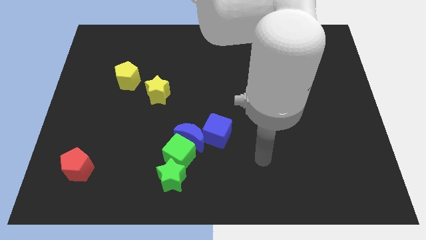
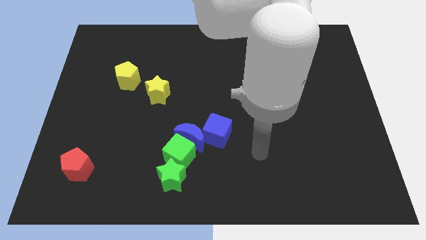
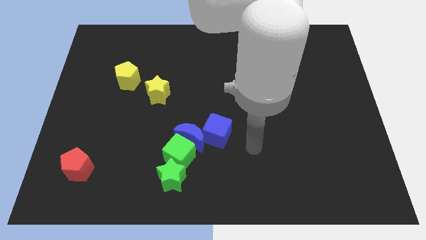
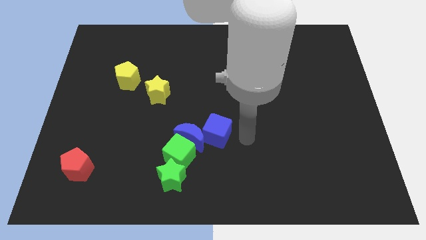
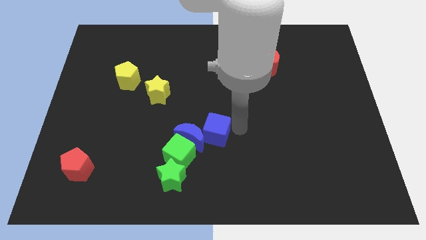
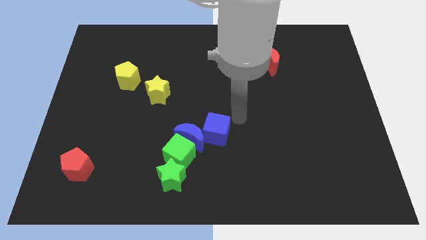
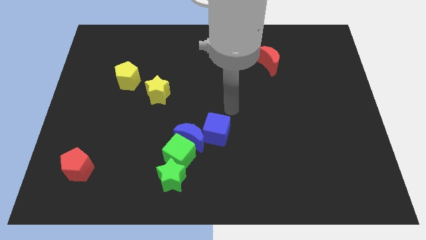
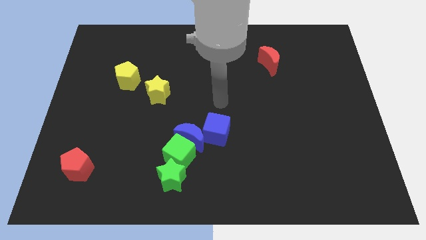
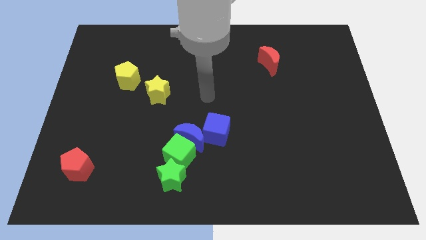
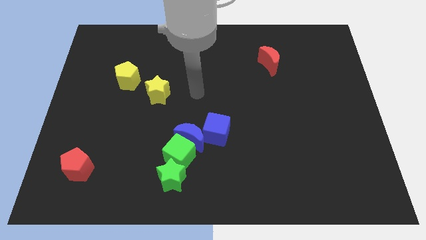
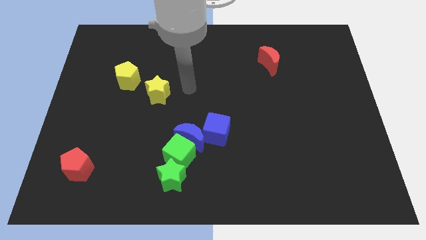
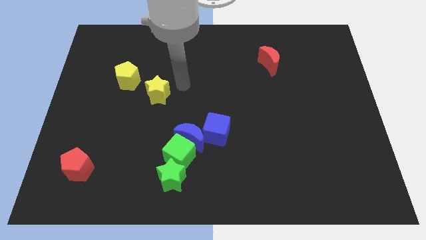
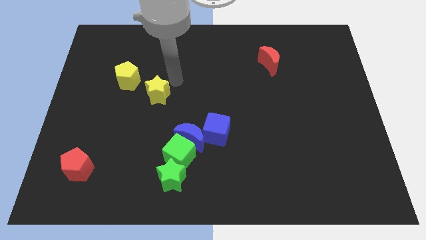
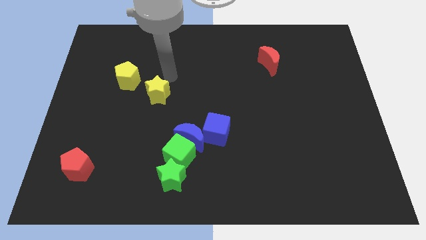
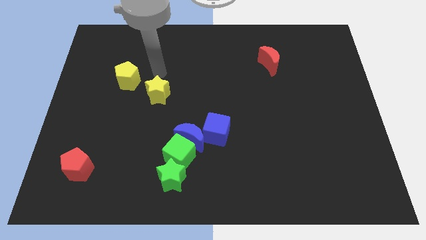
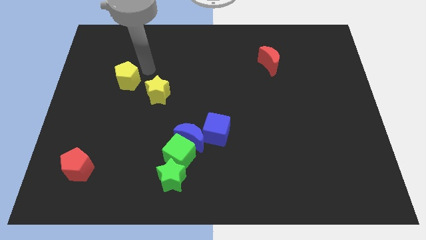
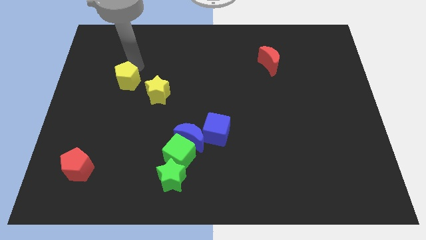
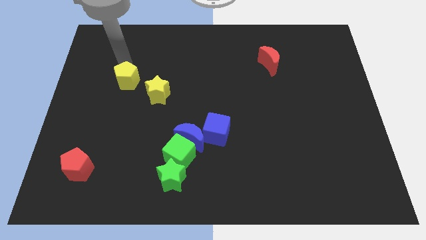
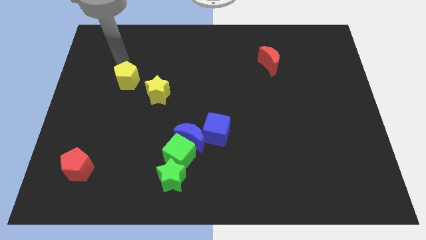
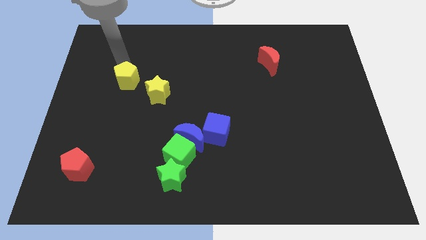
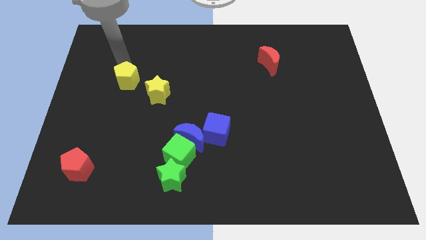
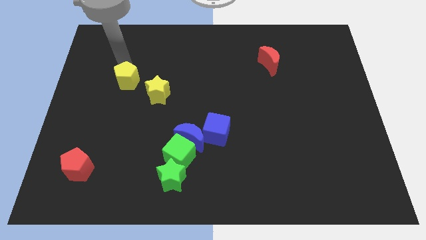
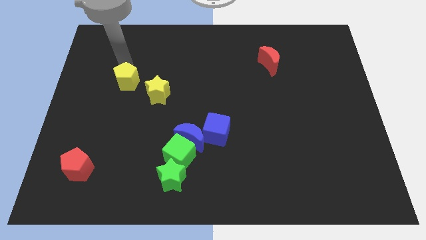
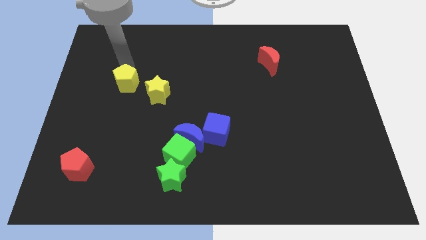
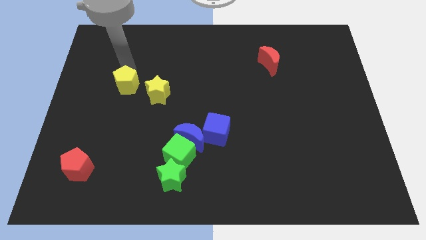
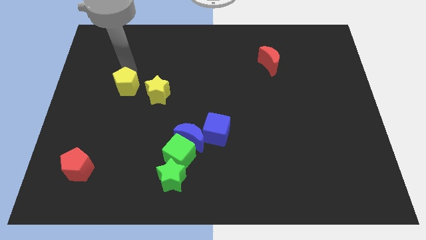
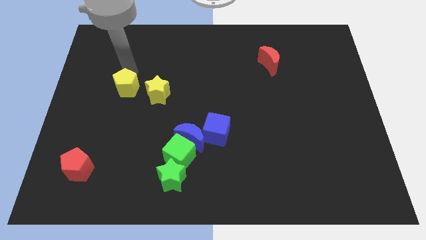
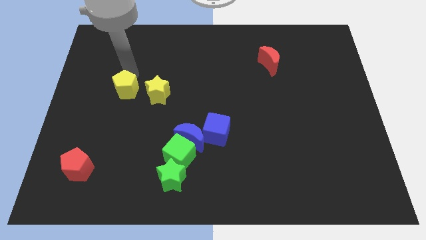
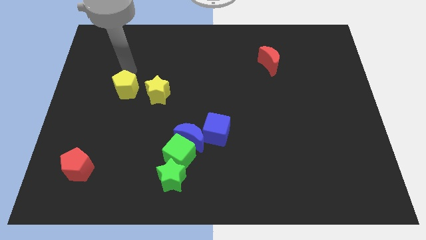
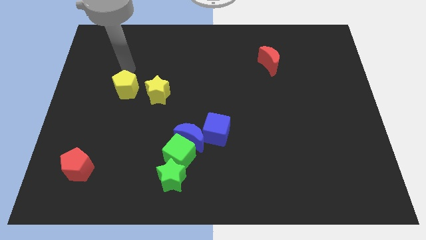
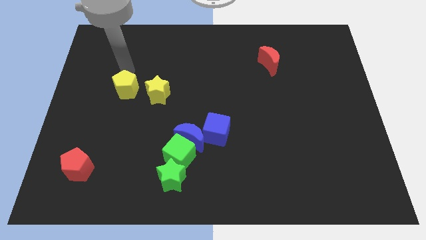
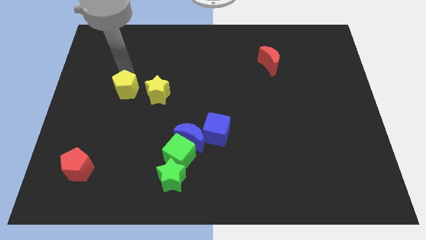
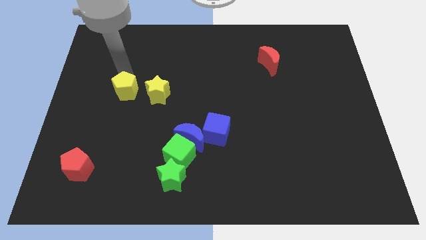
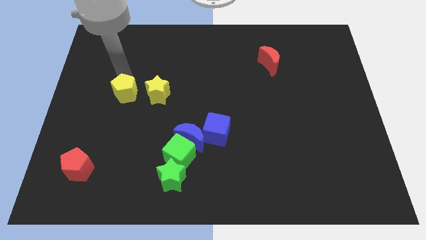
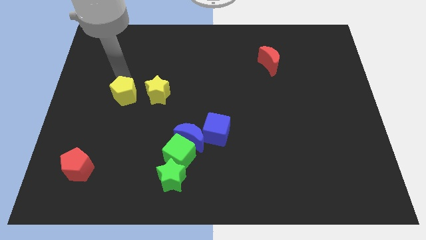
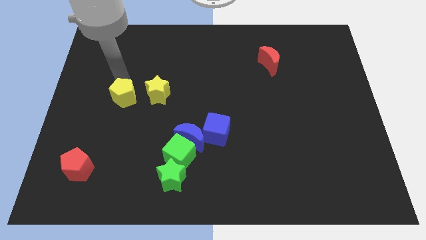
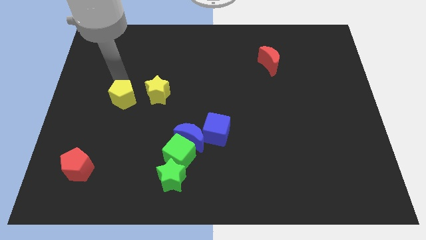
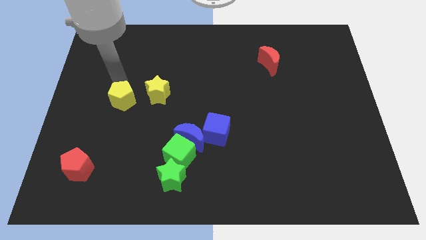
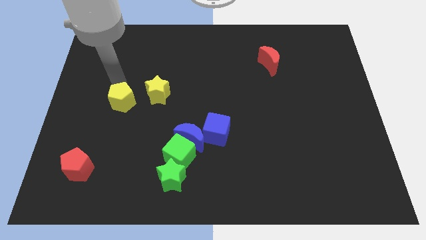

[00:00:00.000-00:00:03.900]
push the yellow pentagon somewhat down

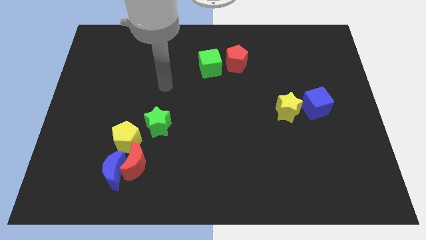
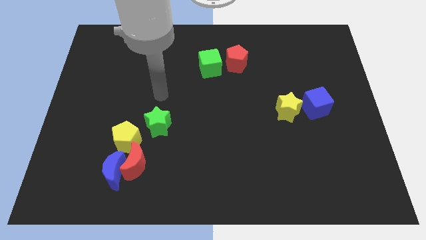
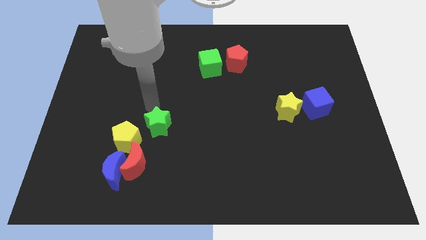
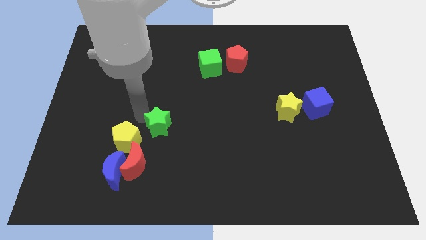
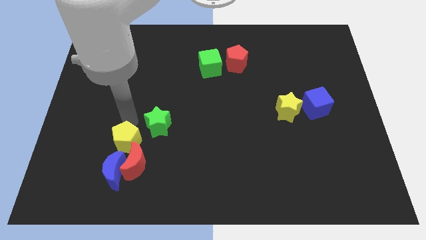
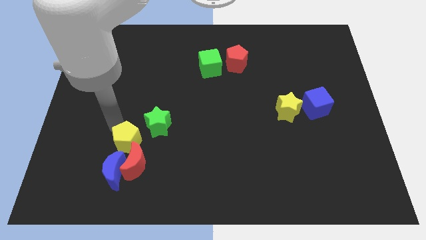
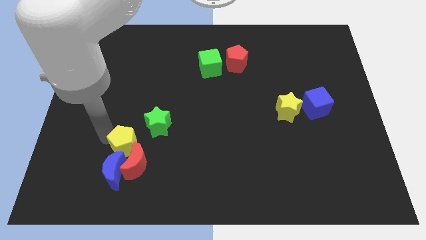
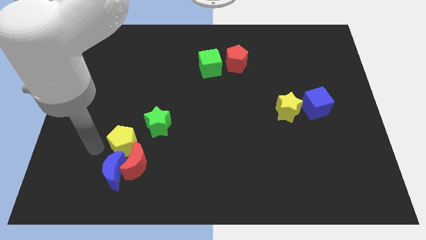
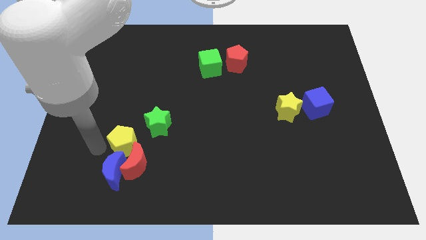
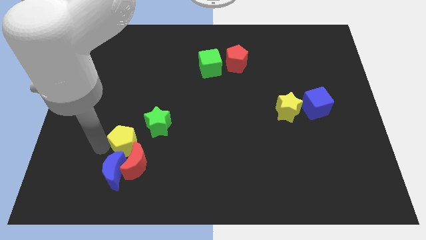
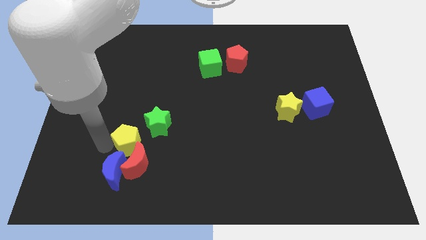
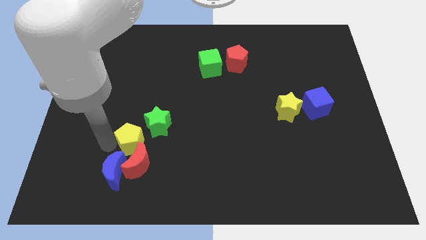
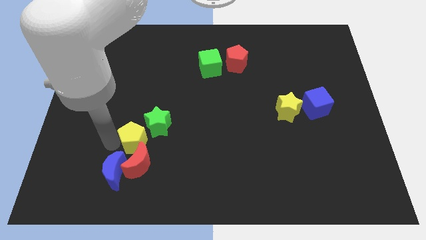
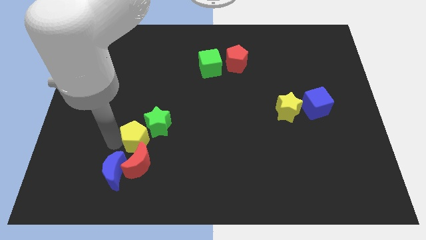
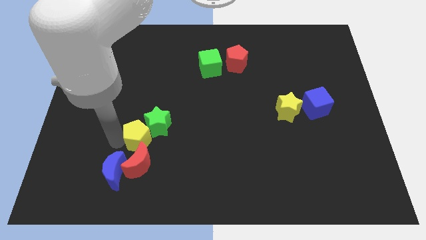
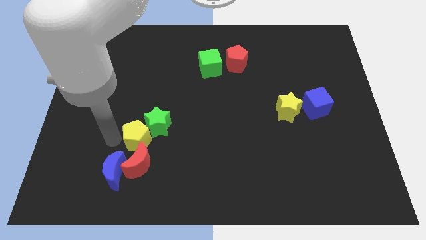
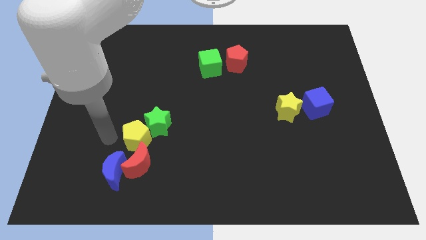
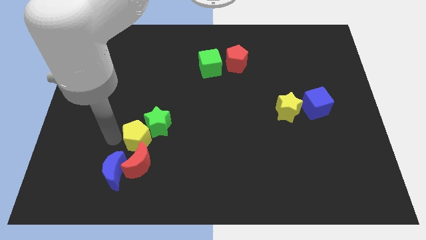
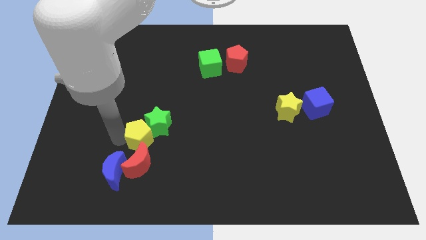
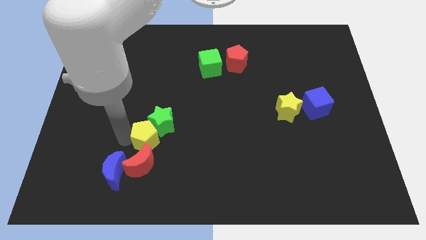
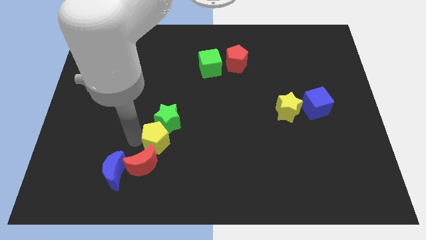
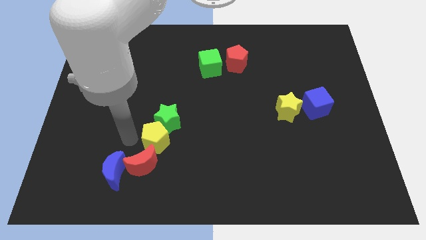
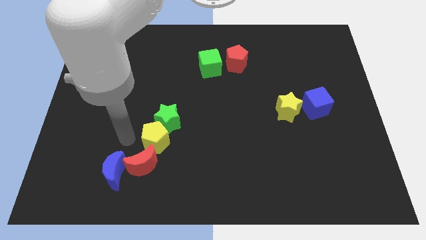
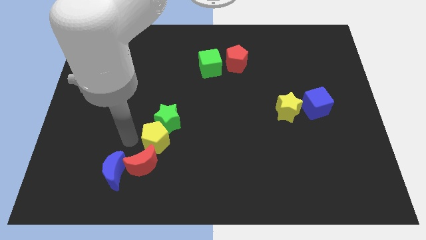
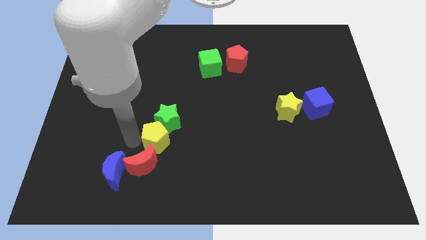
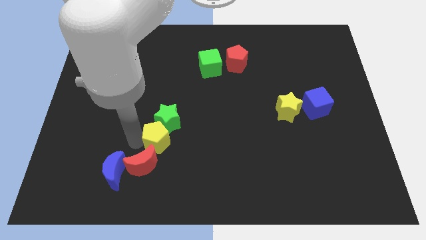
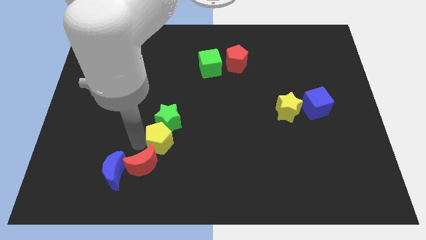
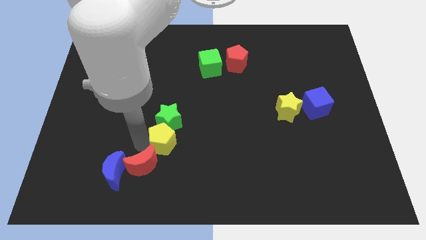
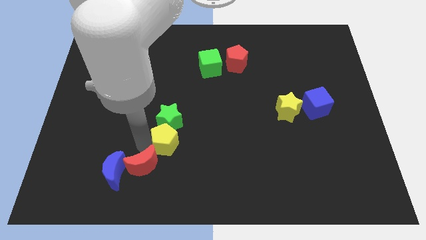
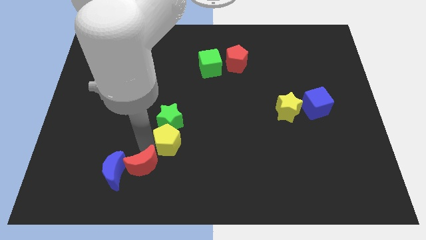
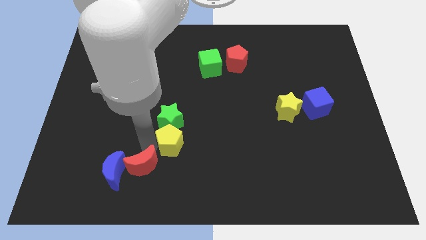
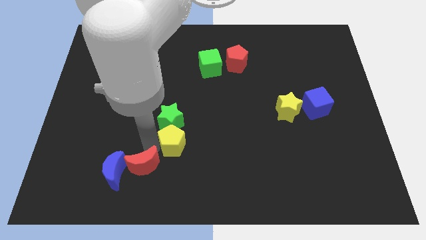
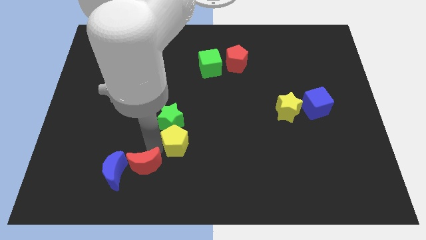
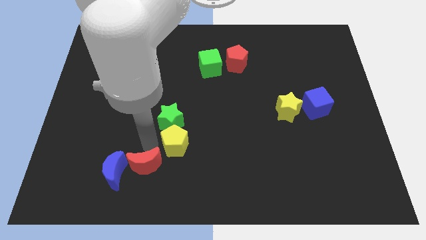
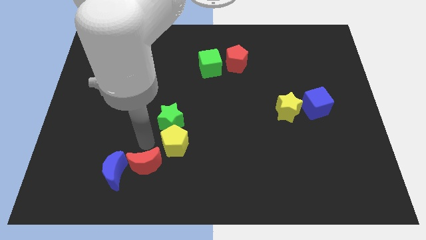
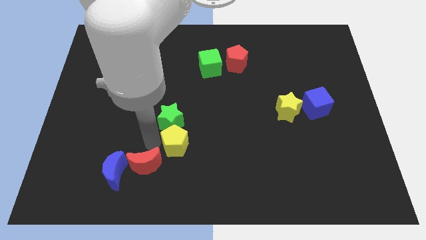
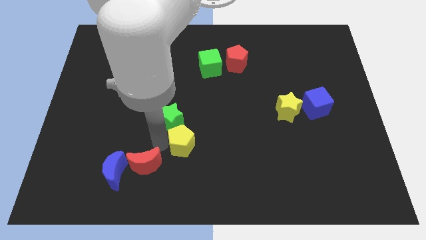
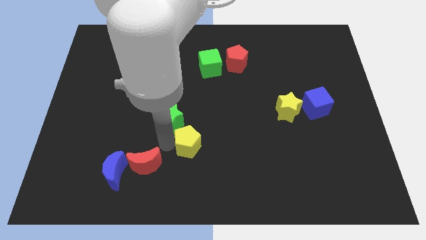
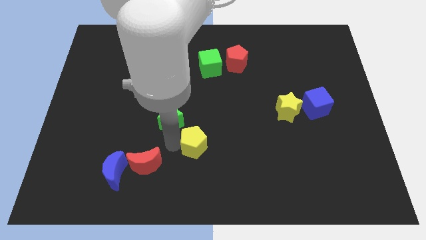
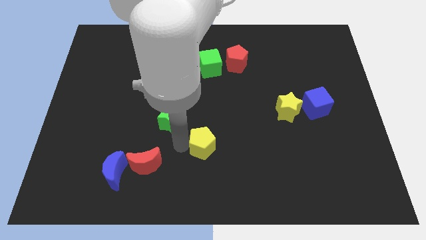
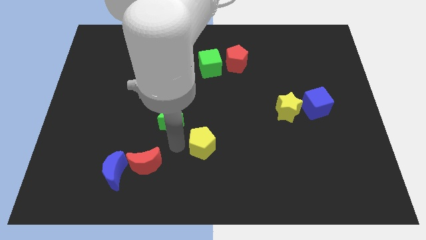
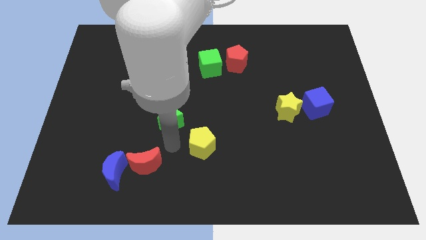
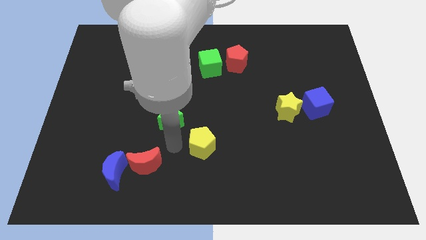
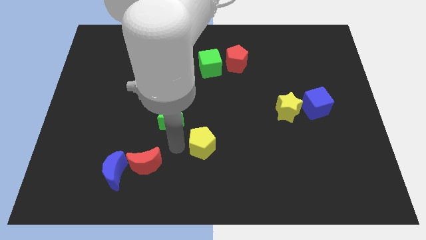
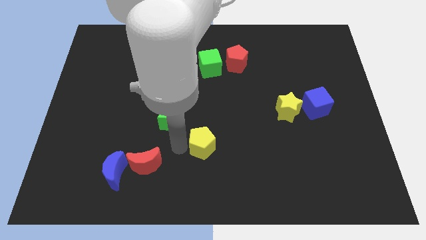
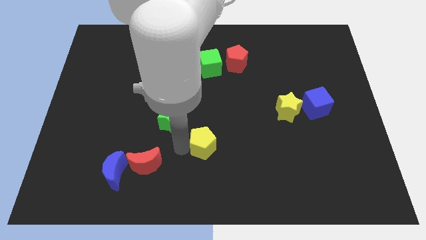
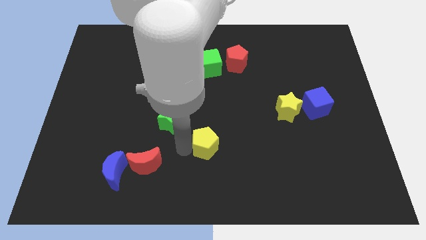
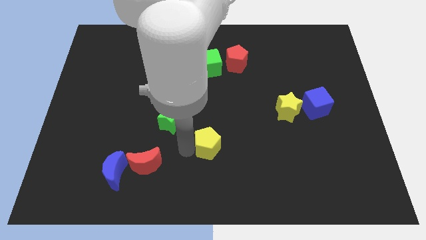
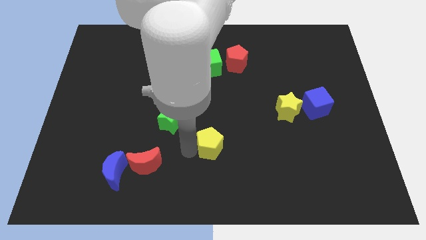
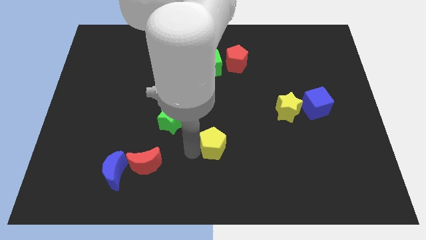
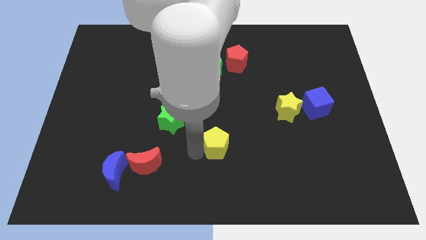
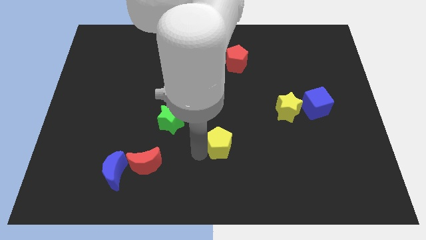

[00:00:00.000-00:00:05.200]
push the yellow pentagon right
